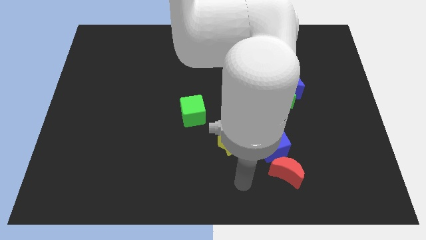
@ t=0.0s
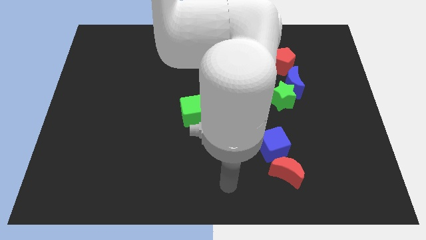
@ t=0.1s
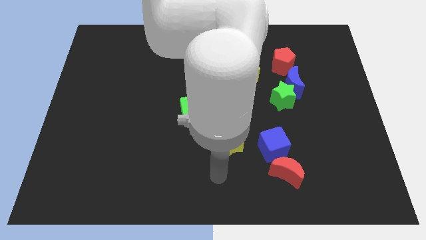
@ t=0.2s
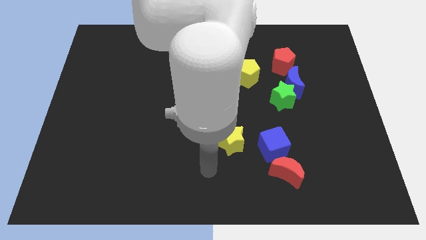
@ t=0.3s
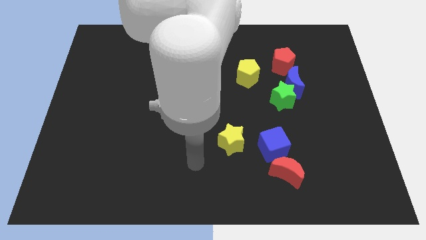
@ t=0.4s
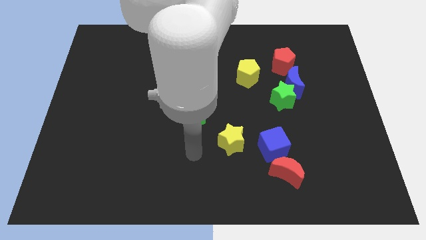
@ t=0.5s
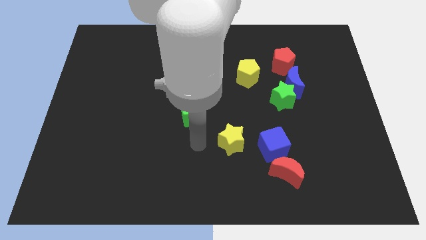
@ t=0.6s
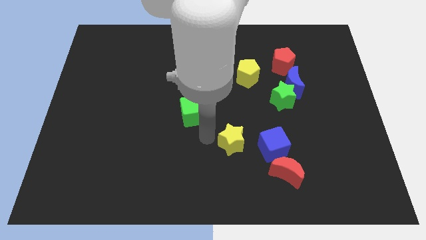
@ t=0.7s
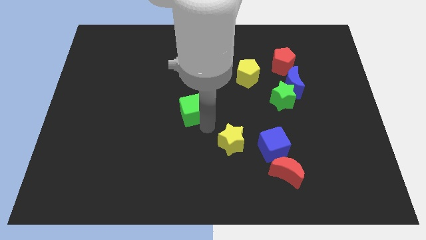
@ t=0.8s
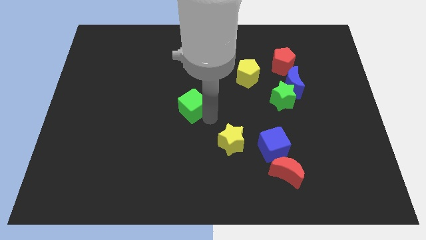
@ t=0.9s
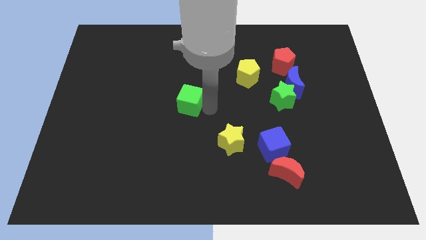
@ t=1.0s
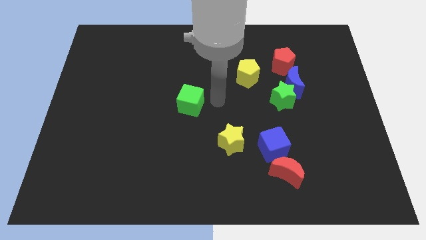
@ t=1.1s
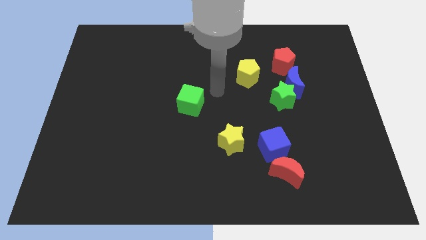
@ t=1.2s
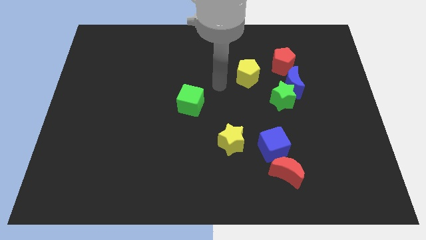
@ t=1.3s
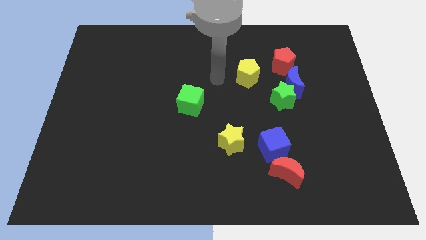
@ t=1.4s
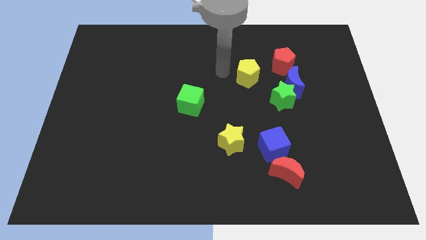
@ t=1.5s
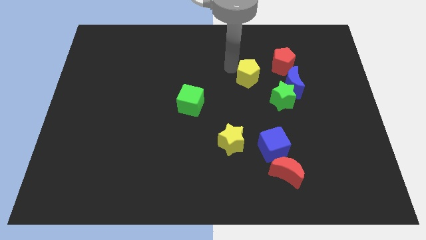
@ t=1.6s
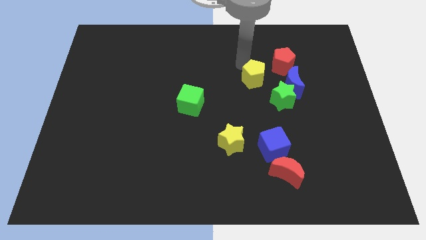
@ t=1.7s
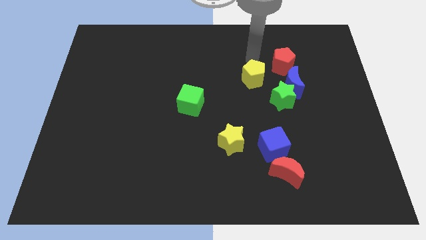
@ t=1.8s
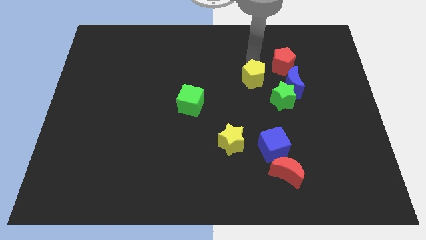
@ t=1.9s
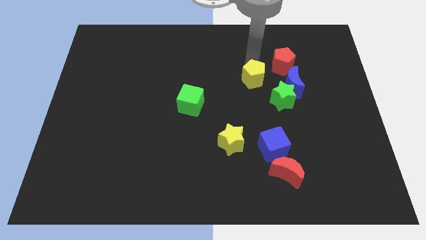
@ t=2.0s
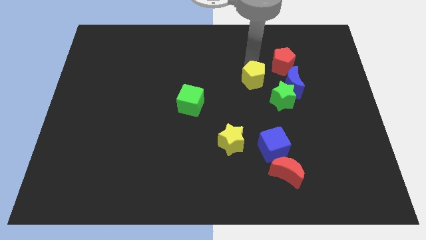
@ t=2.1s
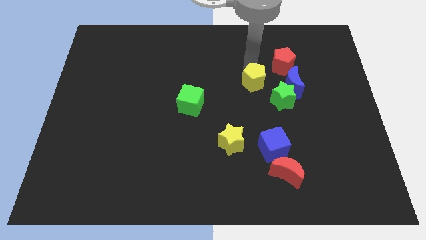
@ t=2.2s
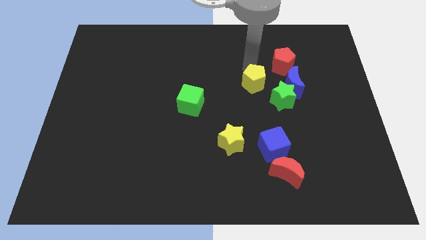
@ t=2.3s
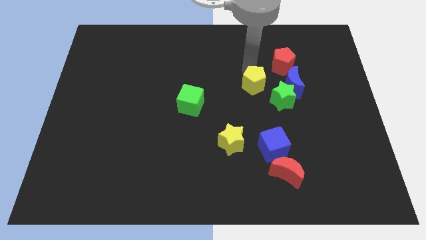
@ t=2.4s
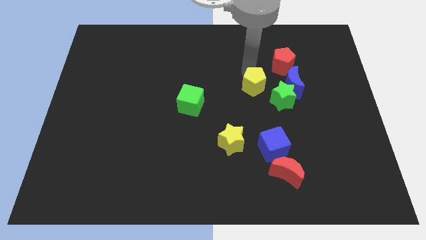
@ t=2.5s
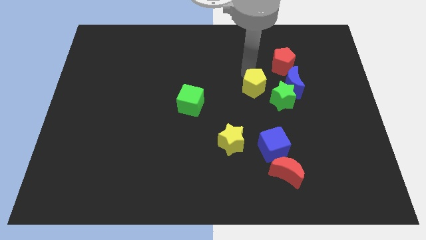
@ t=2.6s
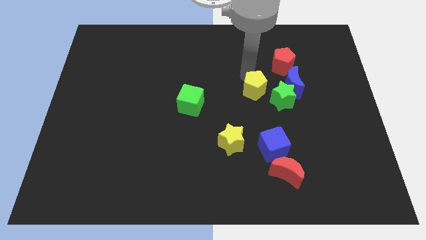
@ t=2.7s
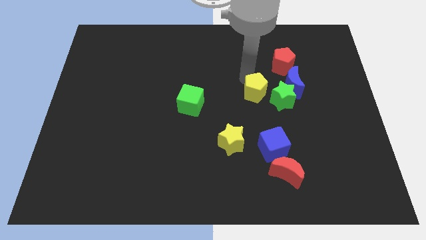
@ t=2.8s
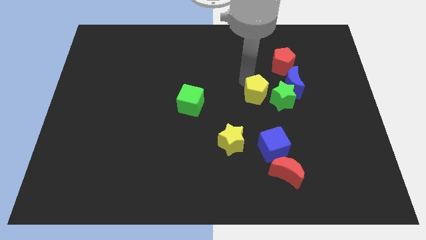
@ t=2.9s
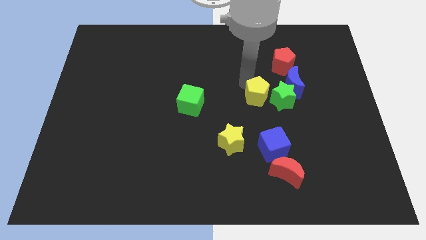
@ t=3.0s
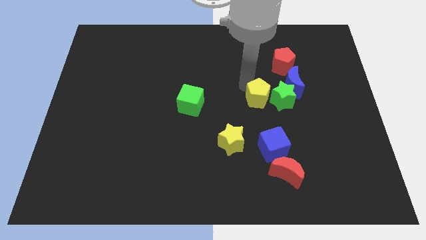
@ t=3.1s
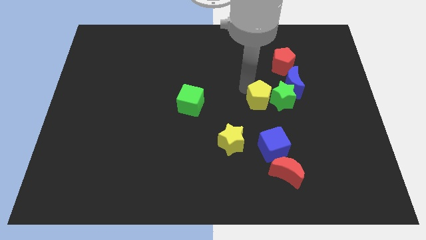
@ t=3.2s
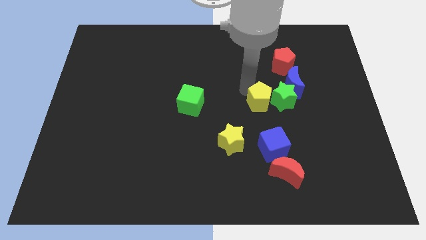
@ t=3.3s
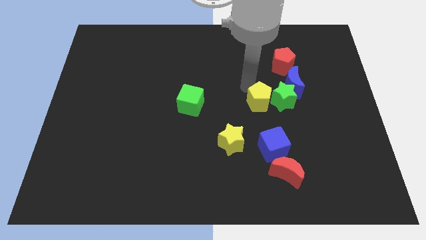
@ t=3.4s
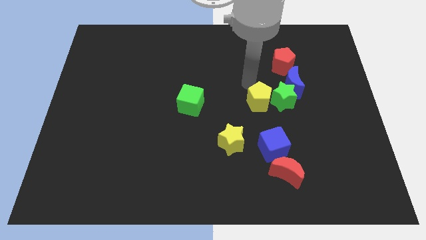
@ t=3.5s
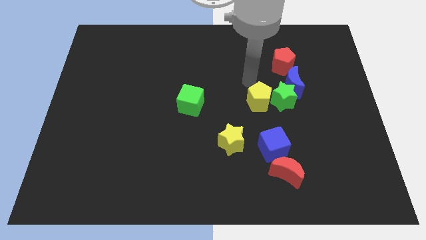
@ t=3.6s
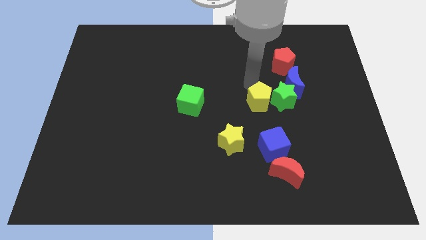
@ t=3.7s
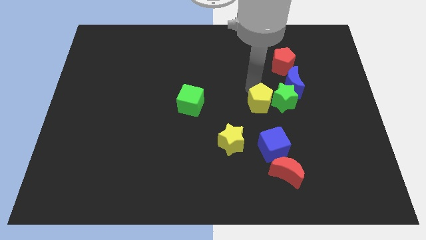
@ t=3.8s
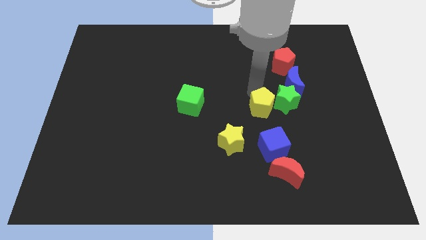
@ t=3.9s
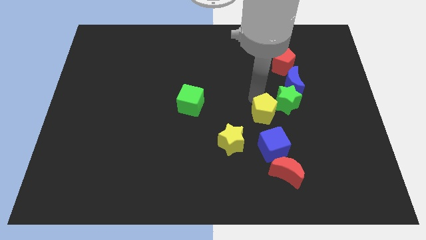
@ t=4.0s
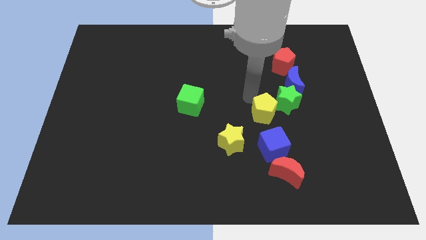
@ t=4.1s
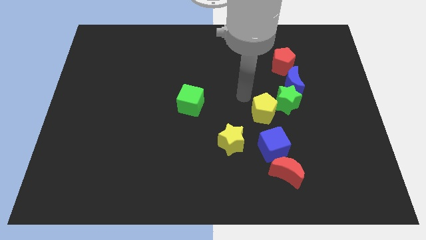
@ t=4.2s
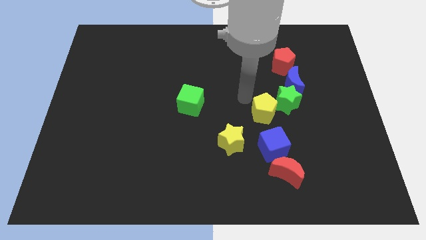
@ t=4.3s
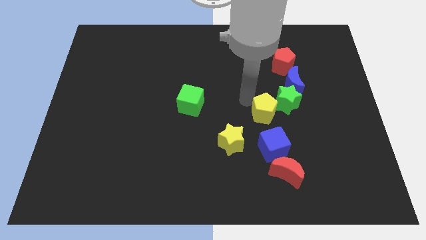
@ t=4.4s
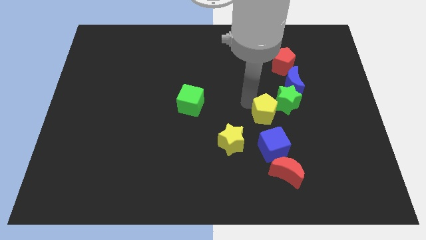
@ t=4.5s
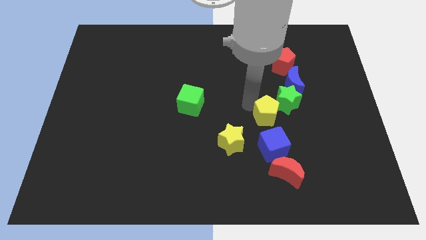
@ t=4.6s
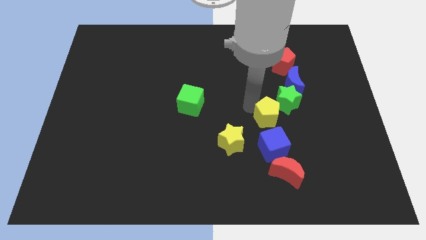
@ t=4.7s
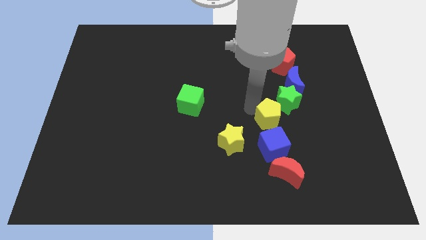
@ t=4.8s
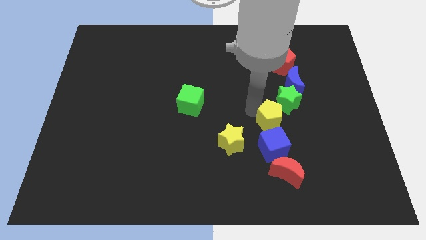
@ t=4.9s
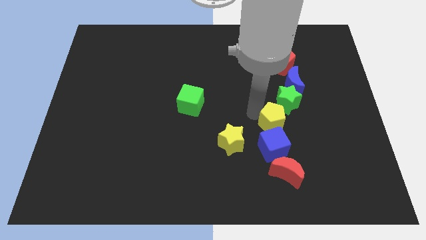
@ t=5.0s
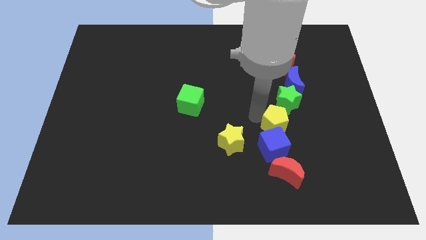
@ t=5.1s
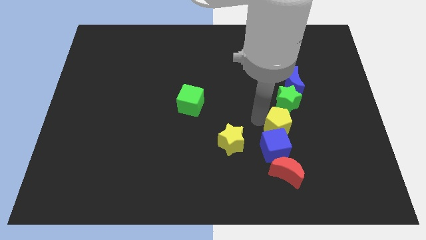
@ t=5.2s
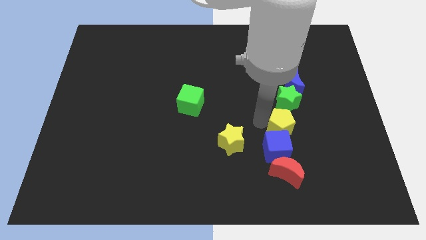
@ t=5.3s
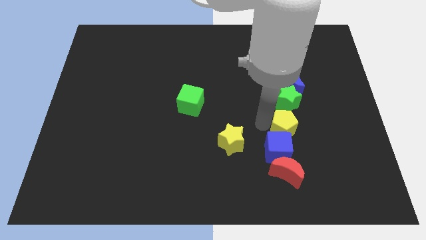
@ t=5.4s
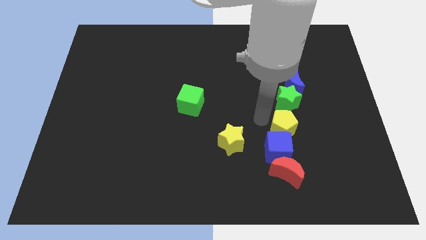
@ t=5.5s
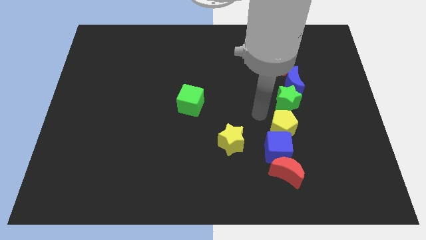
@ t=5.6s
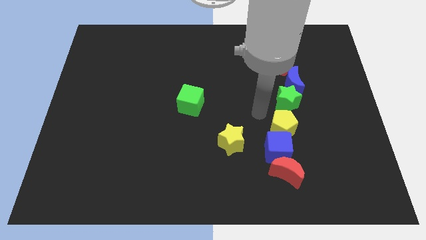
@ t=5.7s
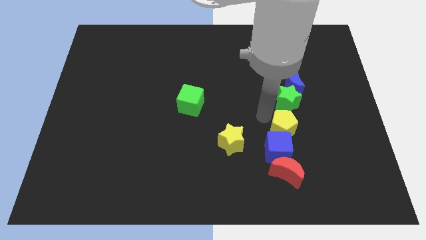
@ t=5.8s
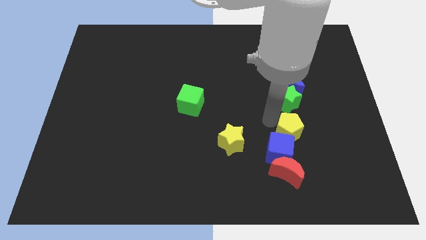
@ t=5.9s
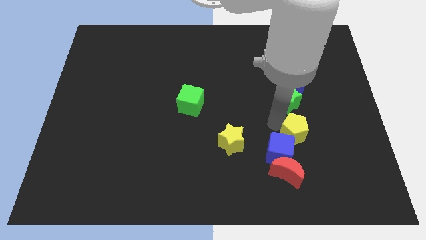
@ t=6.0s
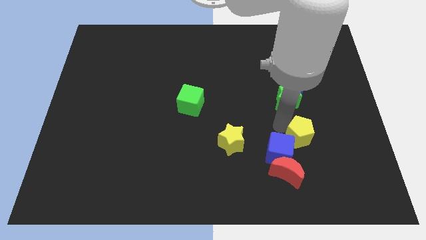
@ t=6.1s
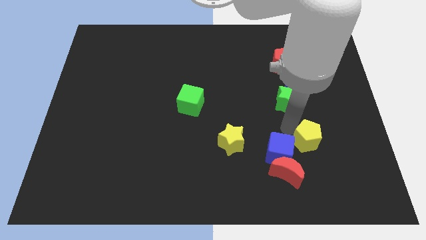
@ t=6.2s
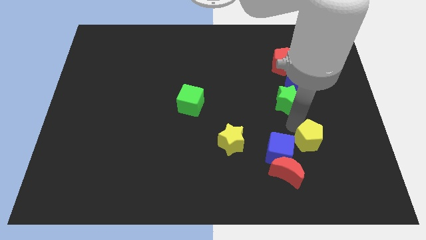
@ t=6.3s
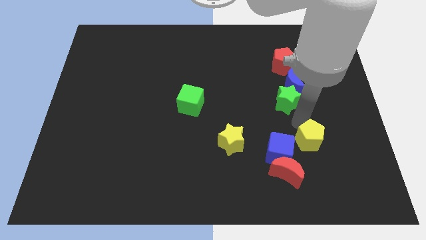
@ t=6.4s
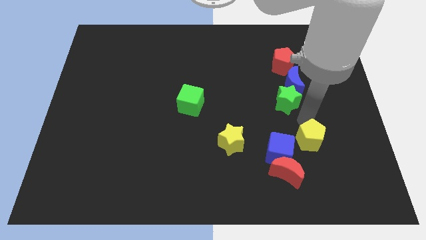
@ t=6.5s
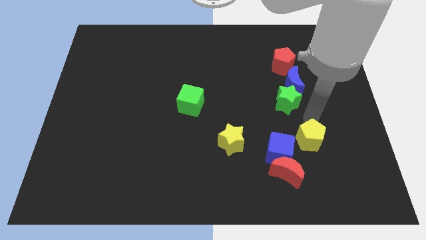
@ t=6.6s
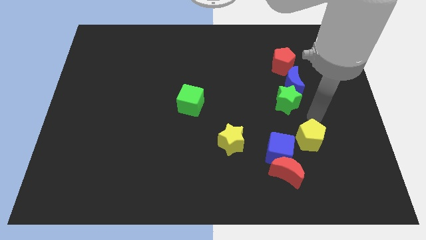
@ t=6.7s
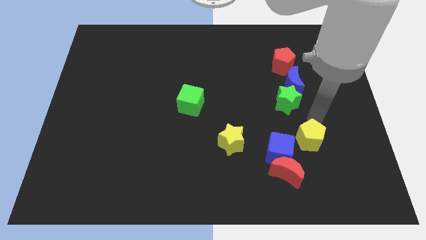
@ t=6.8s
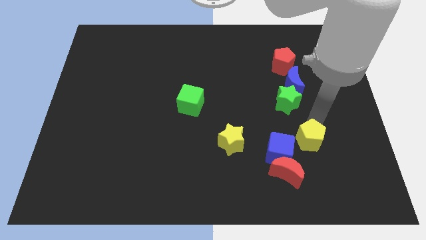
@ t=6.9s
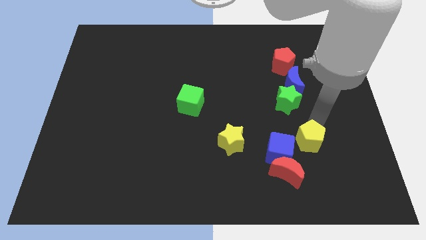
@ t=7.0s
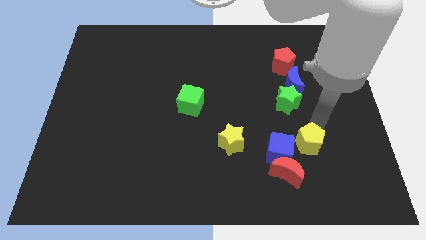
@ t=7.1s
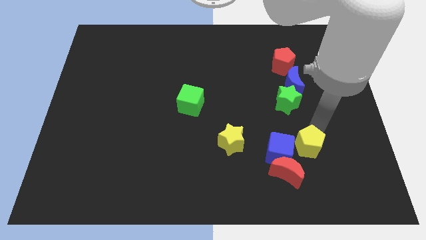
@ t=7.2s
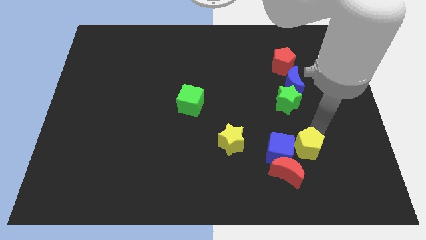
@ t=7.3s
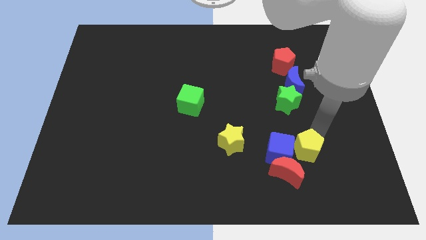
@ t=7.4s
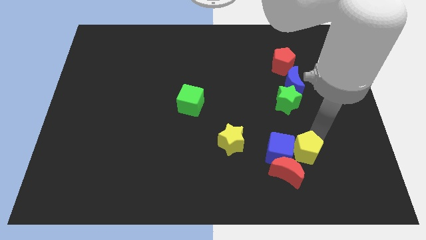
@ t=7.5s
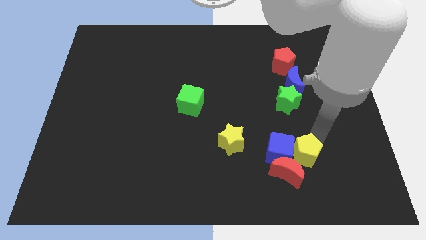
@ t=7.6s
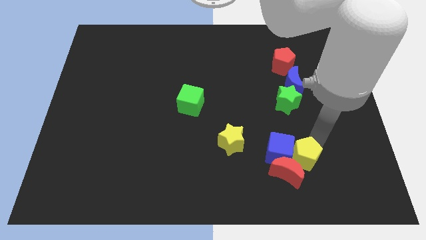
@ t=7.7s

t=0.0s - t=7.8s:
slide the yellow pentagon towards the red moon

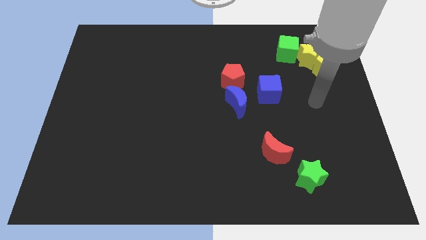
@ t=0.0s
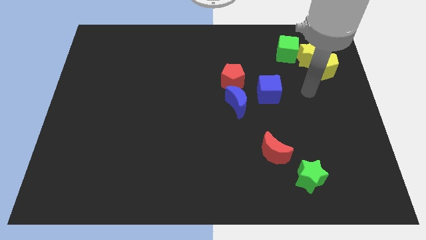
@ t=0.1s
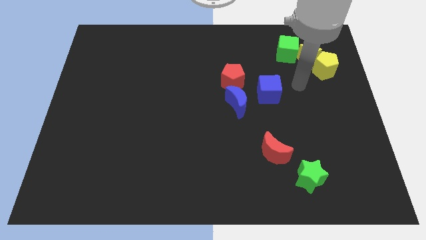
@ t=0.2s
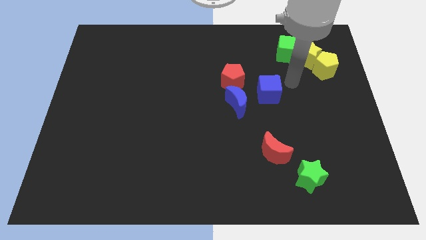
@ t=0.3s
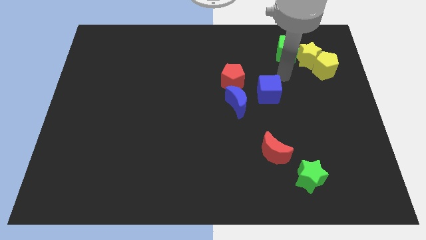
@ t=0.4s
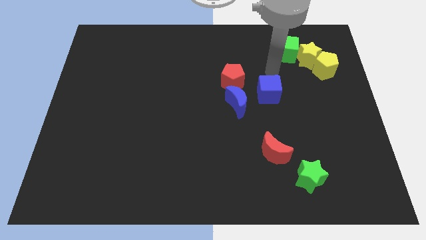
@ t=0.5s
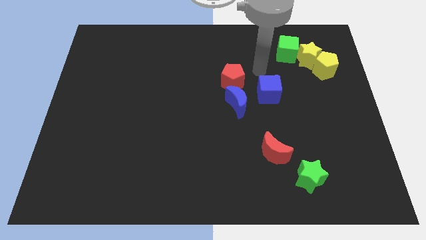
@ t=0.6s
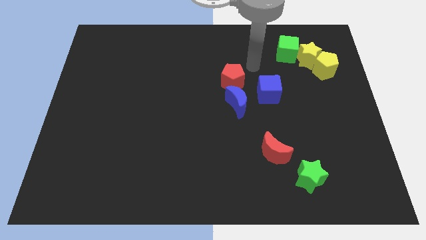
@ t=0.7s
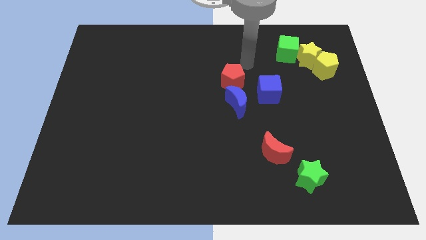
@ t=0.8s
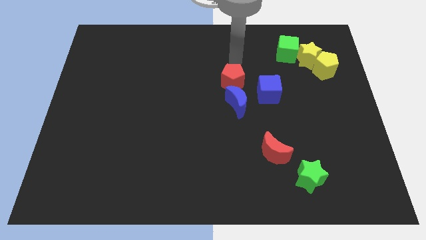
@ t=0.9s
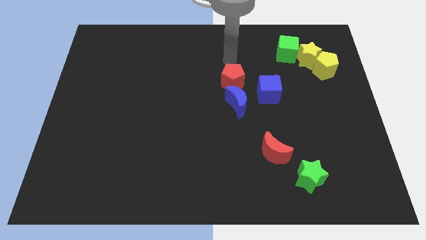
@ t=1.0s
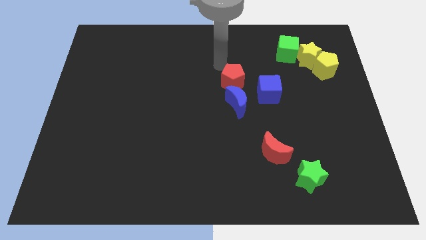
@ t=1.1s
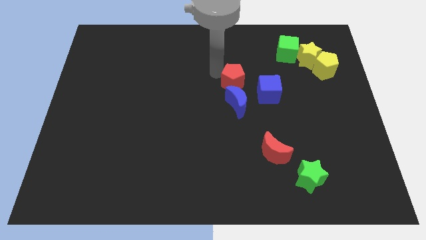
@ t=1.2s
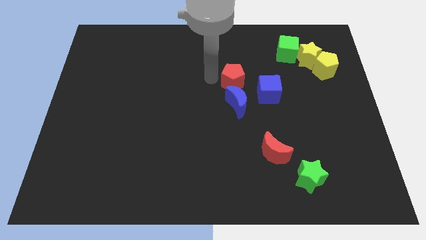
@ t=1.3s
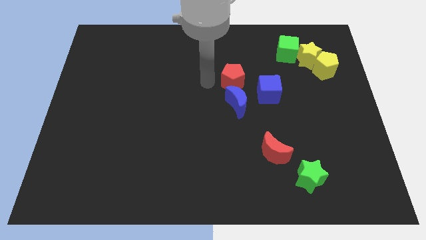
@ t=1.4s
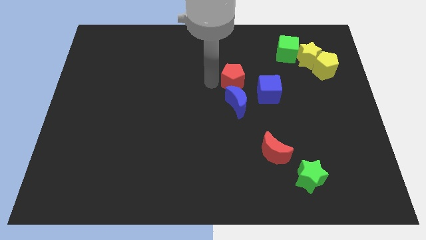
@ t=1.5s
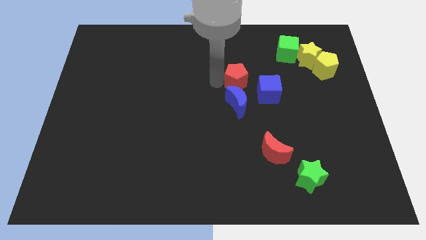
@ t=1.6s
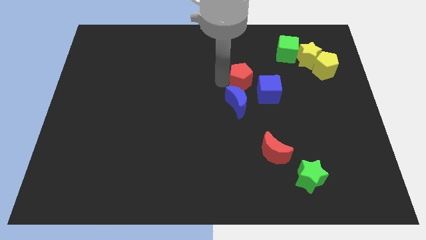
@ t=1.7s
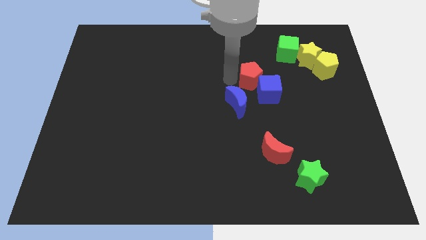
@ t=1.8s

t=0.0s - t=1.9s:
put the red pentagon next to the blue cube
